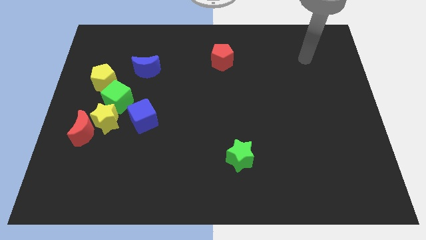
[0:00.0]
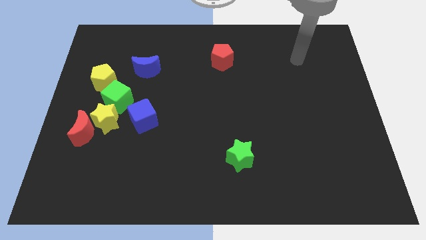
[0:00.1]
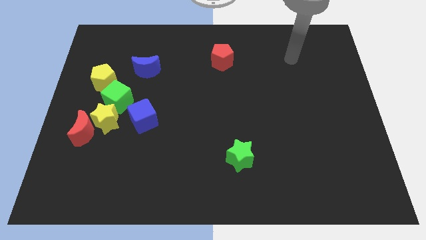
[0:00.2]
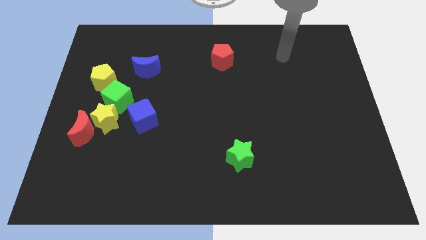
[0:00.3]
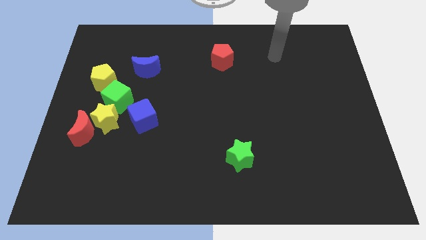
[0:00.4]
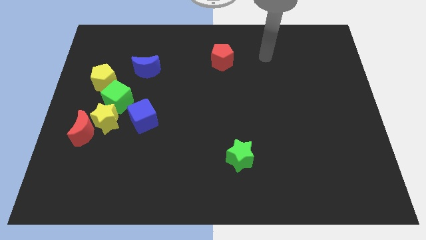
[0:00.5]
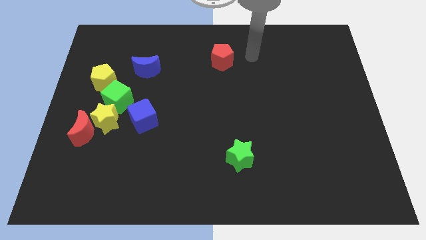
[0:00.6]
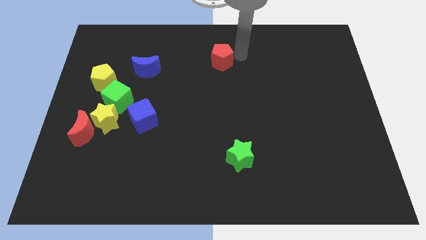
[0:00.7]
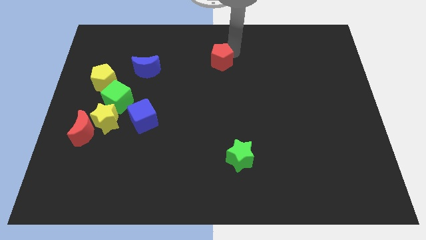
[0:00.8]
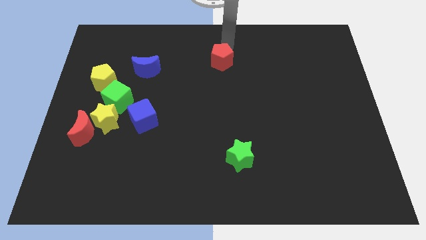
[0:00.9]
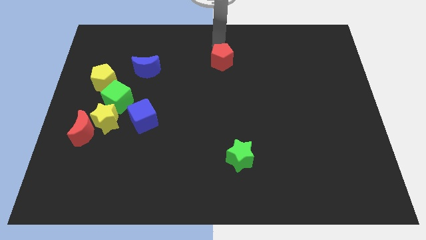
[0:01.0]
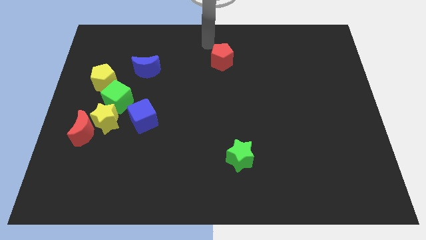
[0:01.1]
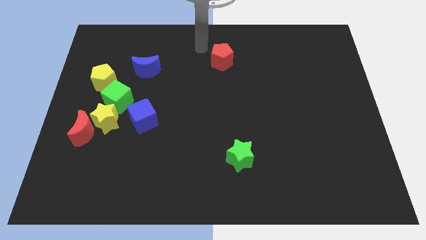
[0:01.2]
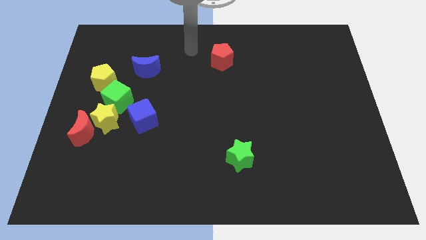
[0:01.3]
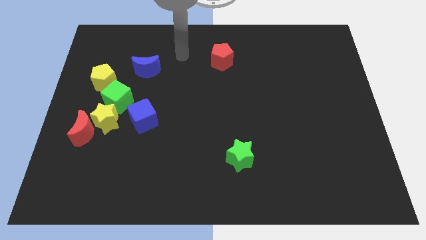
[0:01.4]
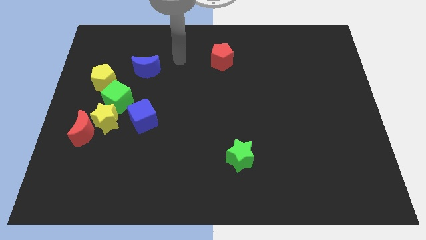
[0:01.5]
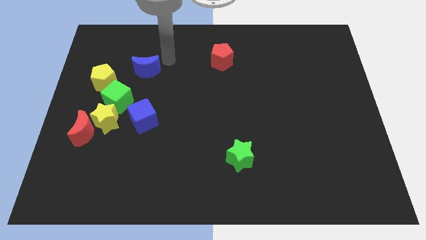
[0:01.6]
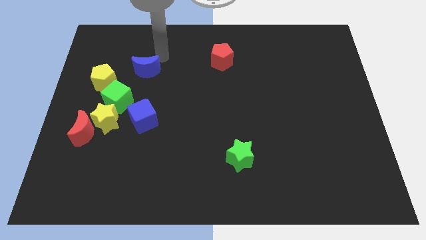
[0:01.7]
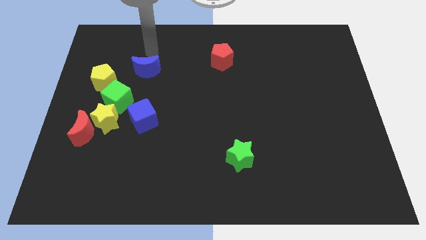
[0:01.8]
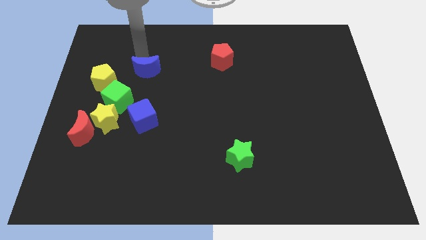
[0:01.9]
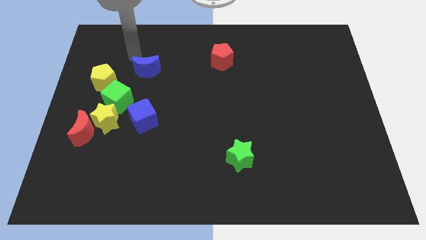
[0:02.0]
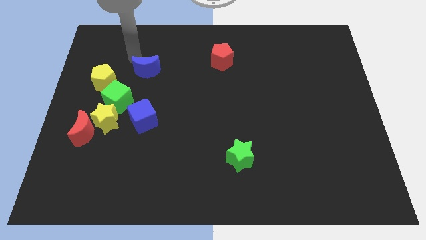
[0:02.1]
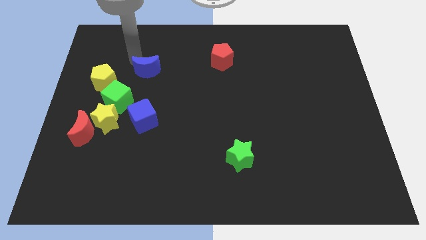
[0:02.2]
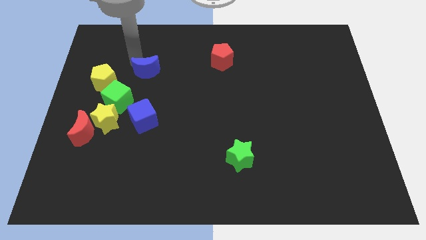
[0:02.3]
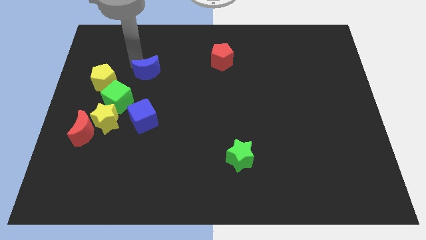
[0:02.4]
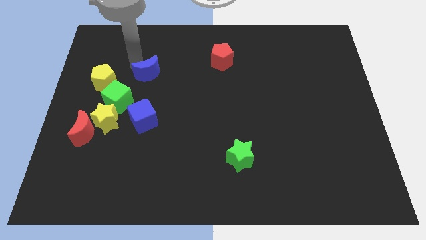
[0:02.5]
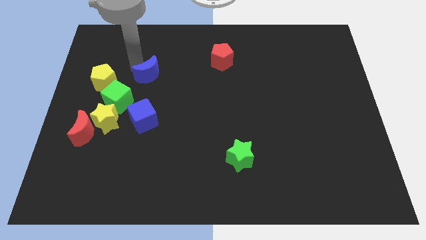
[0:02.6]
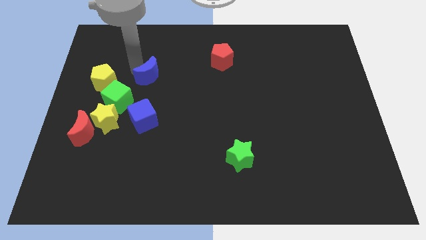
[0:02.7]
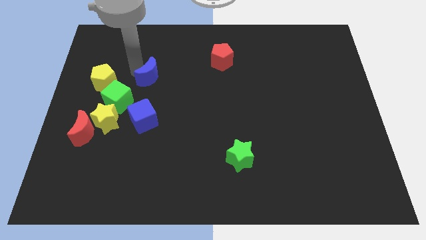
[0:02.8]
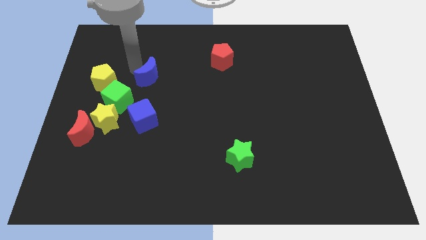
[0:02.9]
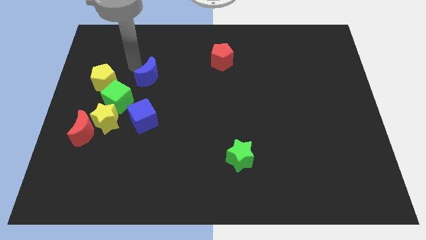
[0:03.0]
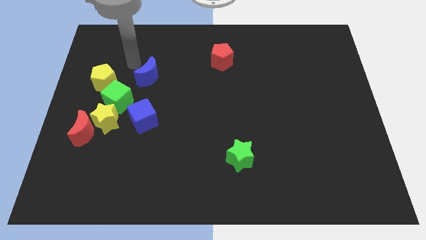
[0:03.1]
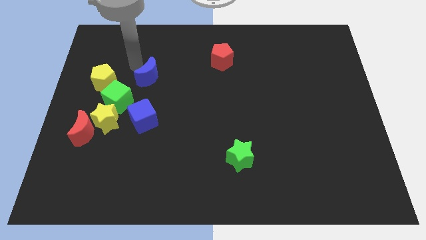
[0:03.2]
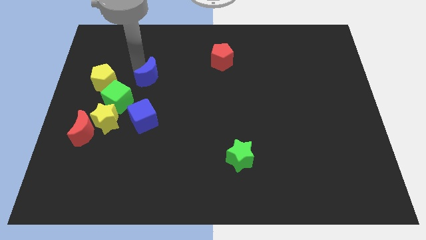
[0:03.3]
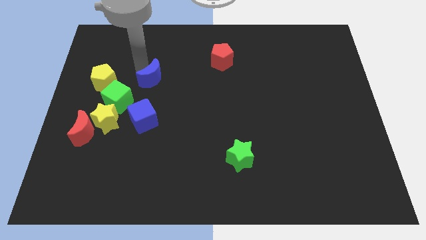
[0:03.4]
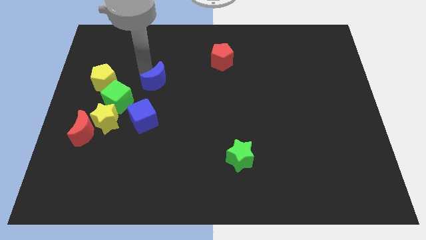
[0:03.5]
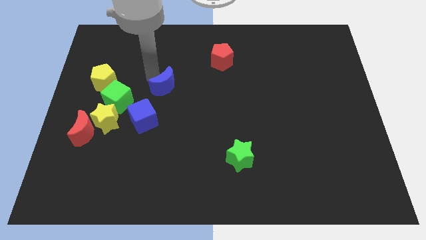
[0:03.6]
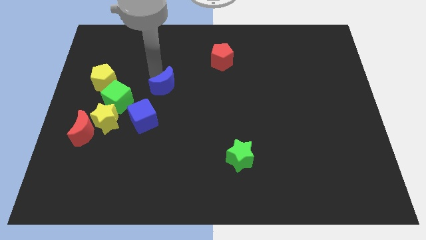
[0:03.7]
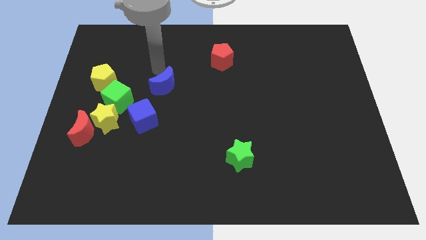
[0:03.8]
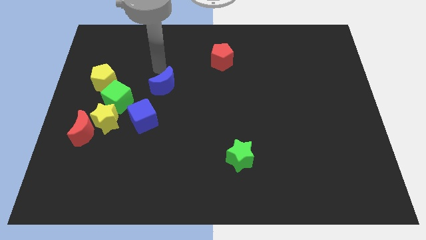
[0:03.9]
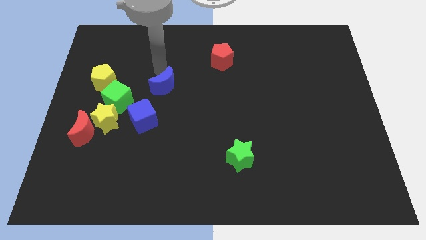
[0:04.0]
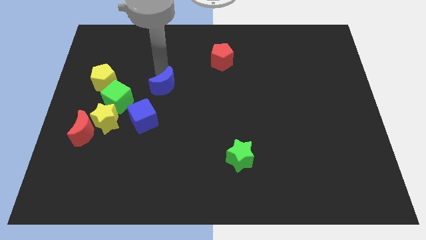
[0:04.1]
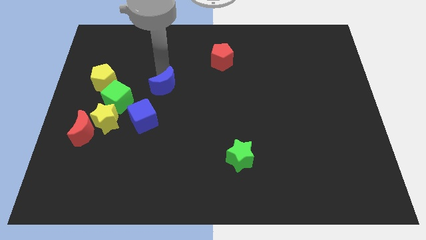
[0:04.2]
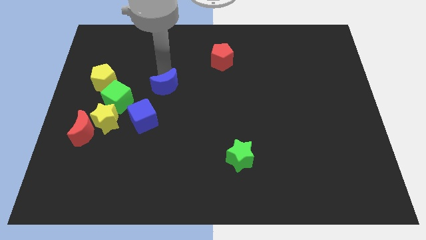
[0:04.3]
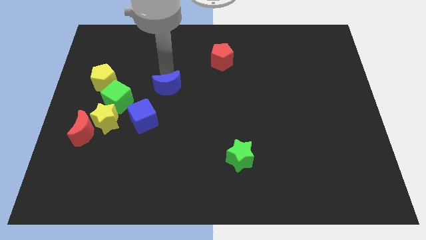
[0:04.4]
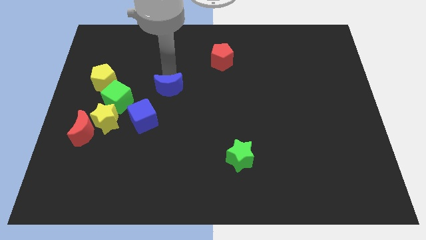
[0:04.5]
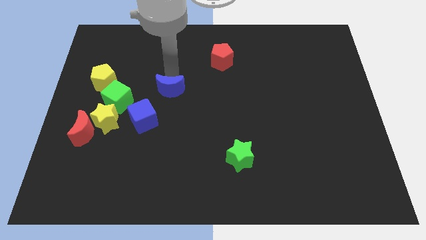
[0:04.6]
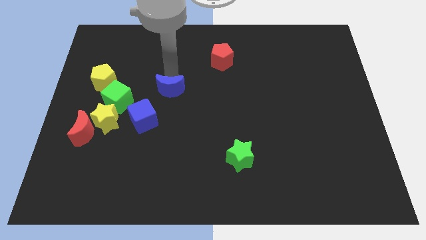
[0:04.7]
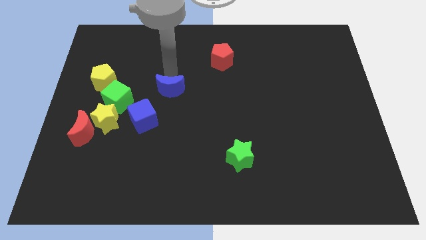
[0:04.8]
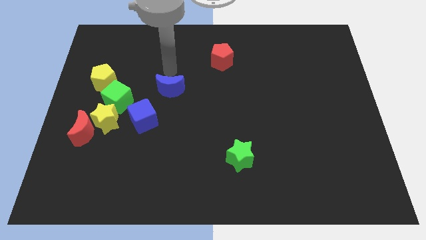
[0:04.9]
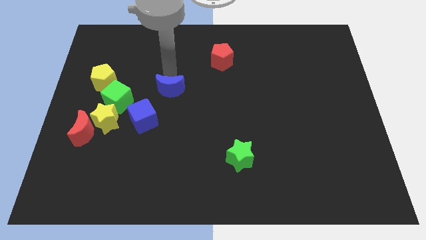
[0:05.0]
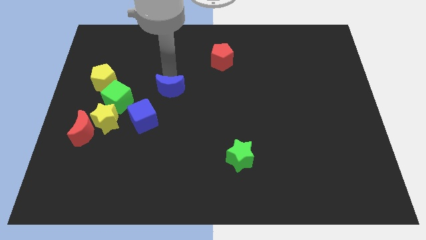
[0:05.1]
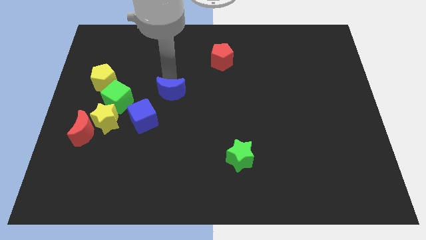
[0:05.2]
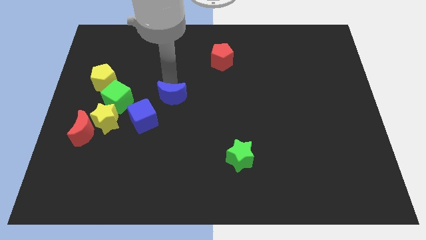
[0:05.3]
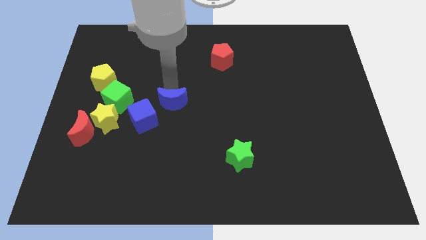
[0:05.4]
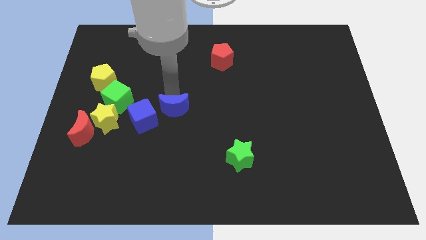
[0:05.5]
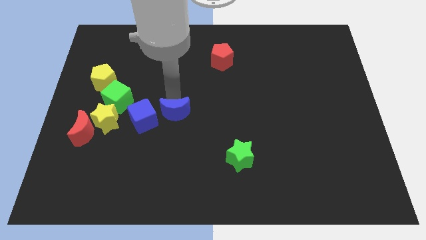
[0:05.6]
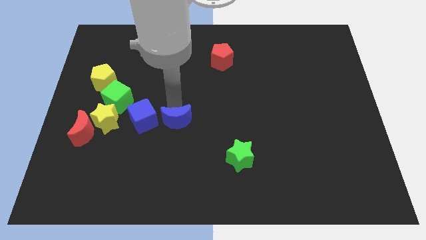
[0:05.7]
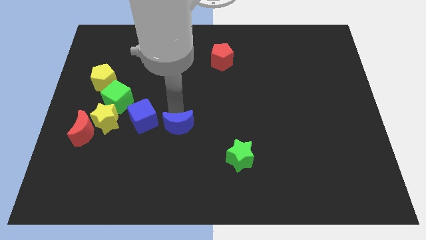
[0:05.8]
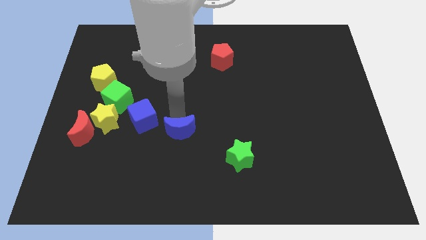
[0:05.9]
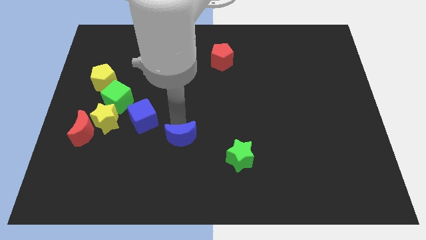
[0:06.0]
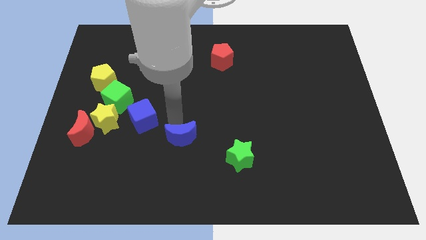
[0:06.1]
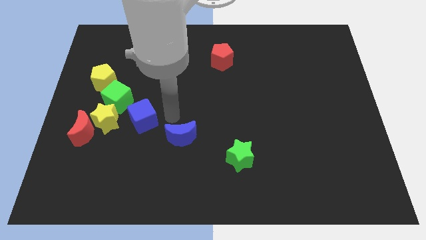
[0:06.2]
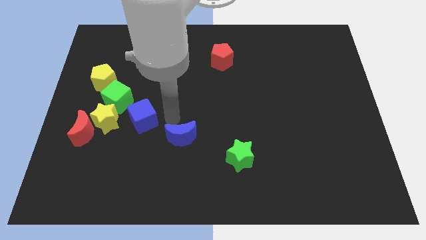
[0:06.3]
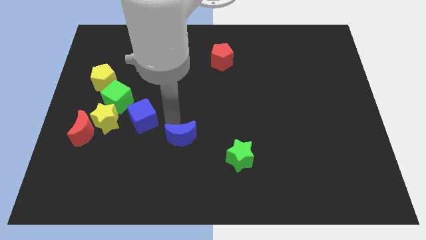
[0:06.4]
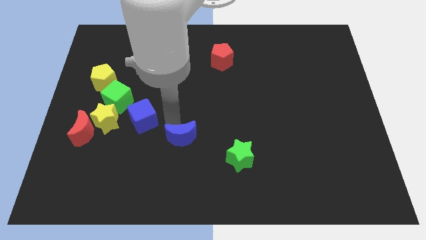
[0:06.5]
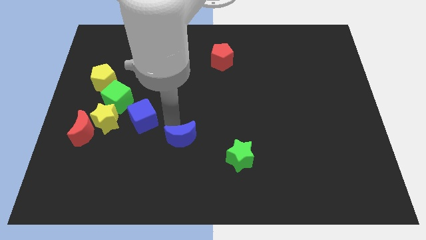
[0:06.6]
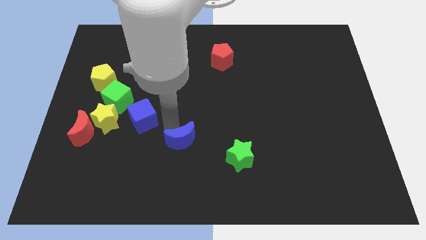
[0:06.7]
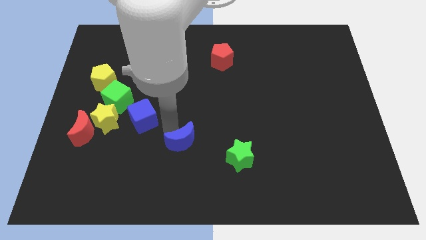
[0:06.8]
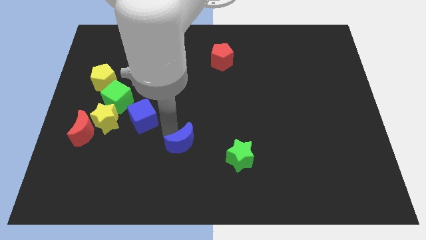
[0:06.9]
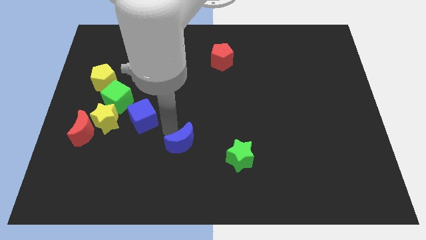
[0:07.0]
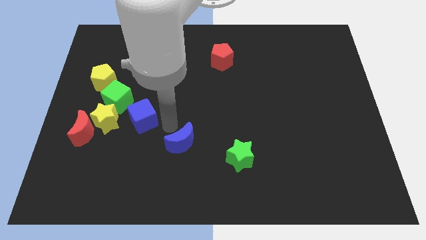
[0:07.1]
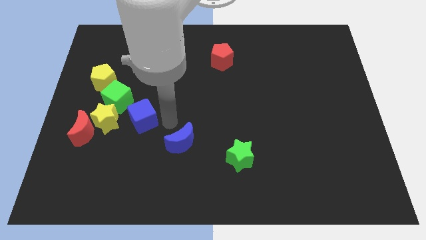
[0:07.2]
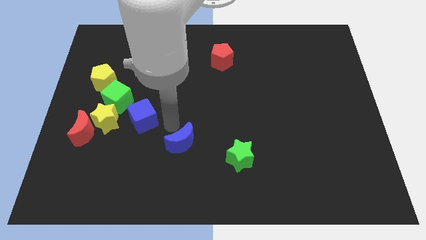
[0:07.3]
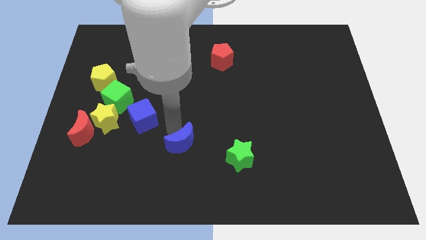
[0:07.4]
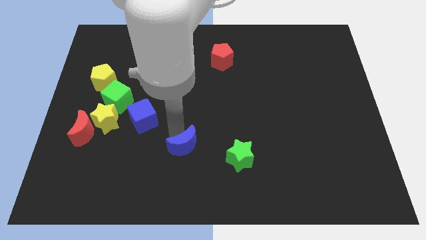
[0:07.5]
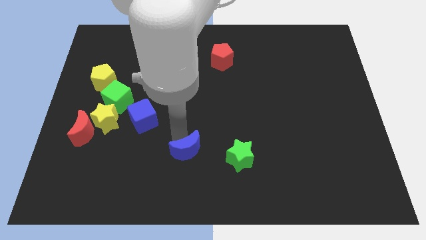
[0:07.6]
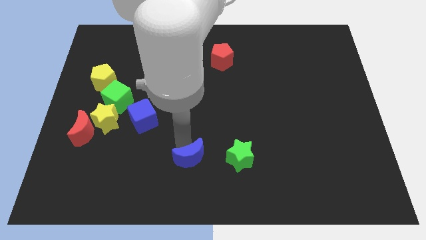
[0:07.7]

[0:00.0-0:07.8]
move the blue moon to the bottom side
